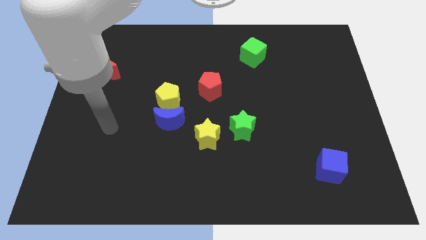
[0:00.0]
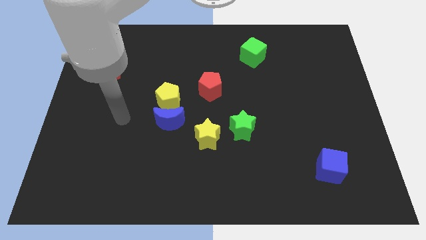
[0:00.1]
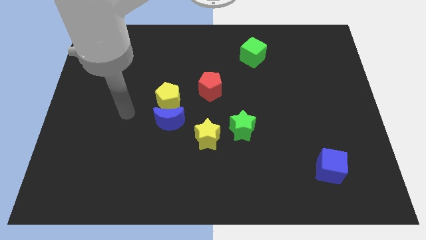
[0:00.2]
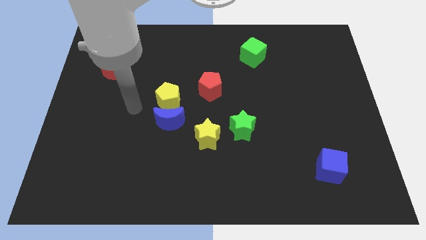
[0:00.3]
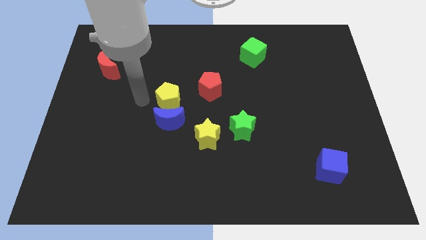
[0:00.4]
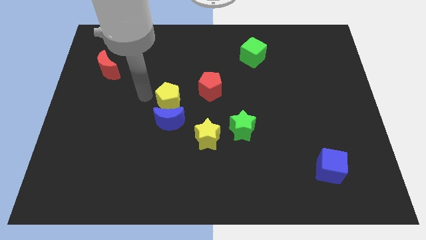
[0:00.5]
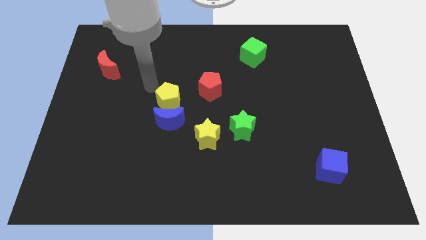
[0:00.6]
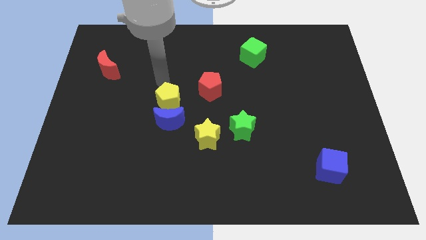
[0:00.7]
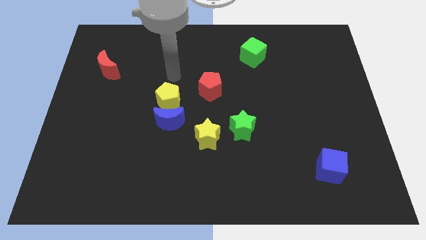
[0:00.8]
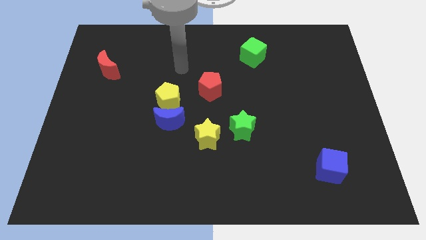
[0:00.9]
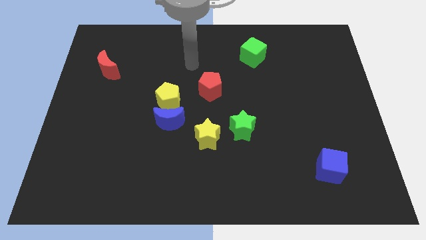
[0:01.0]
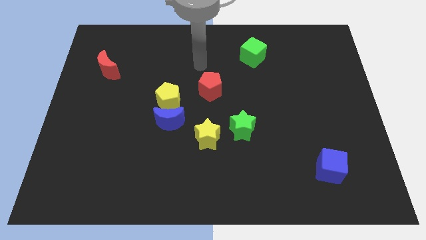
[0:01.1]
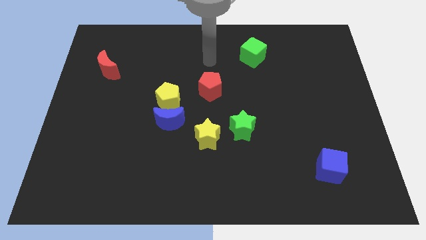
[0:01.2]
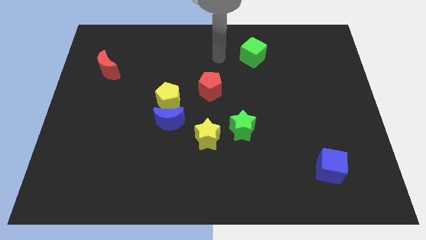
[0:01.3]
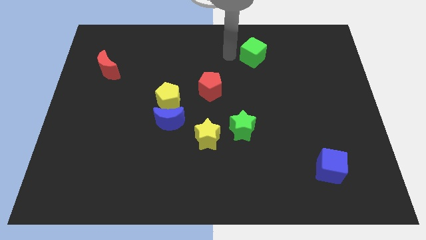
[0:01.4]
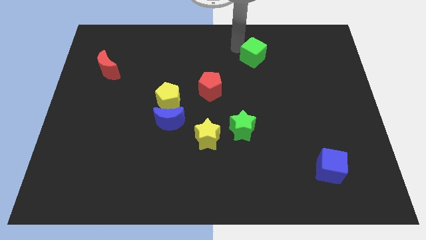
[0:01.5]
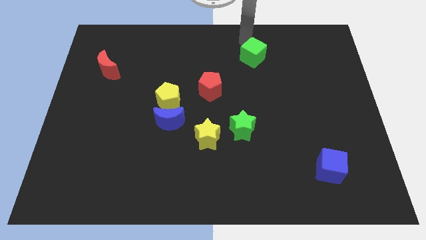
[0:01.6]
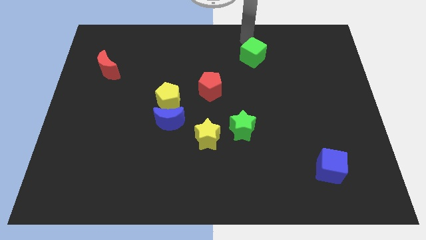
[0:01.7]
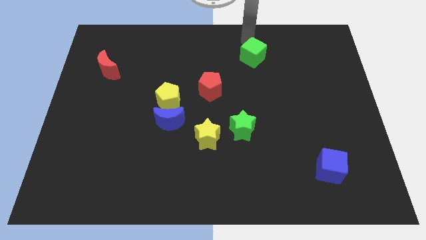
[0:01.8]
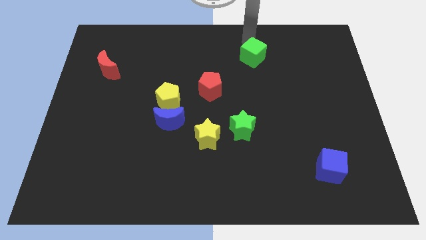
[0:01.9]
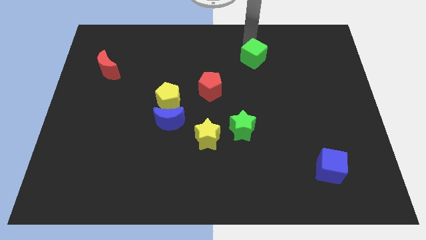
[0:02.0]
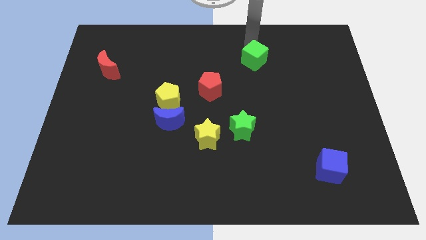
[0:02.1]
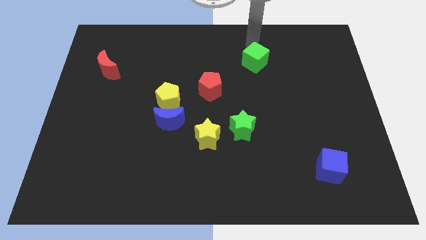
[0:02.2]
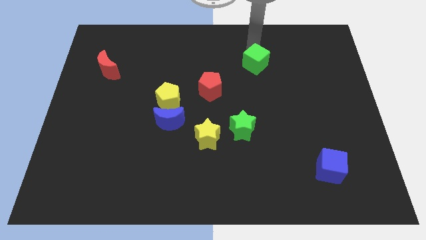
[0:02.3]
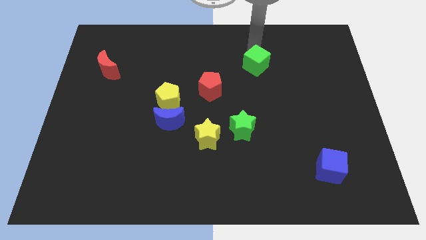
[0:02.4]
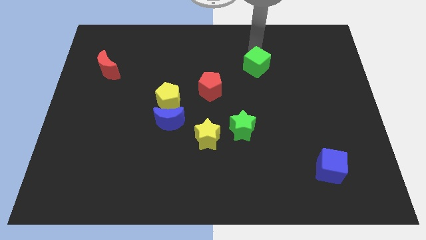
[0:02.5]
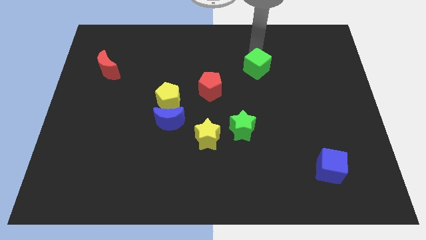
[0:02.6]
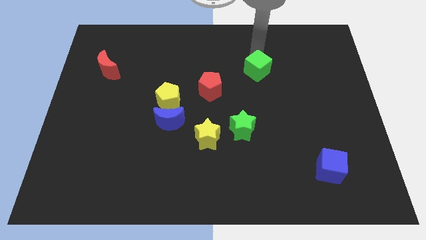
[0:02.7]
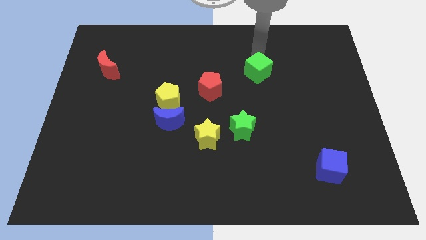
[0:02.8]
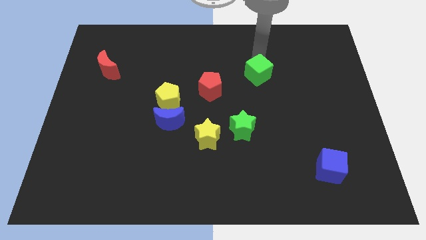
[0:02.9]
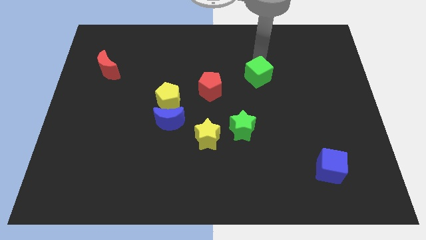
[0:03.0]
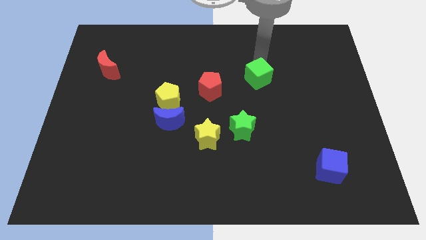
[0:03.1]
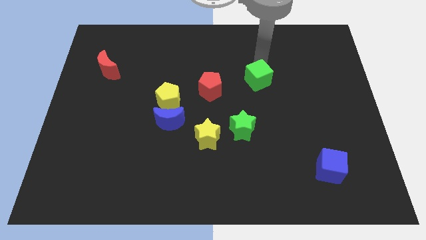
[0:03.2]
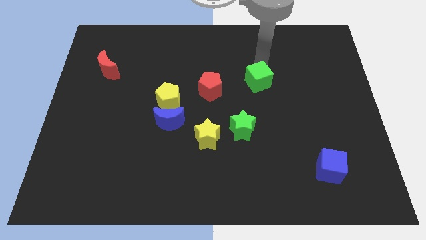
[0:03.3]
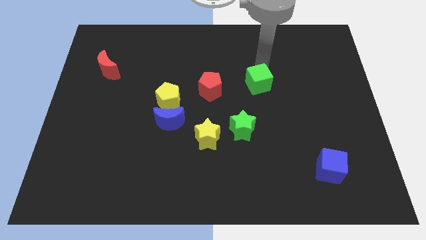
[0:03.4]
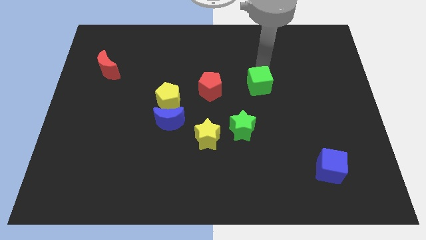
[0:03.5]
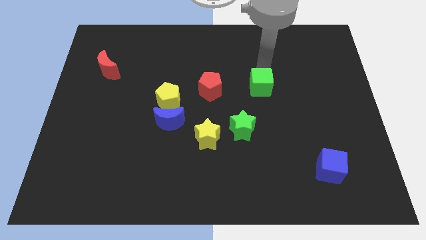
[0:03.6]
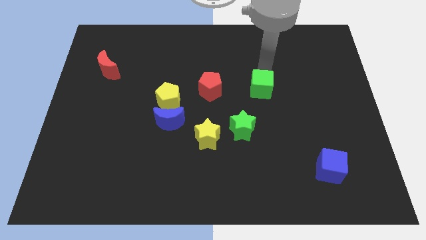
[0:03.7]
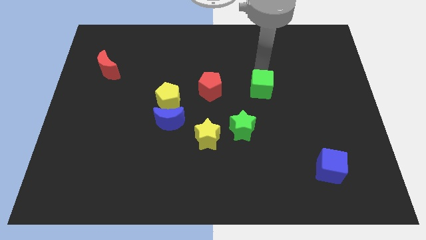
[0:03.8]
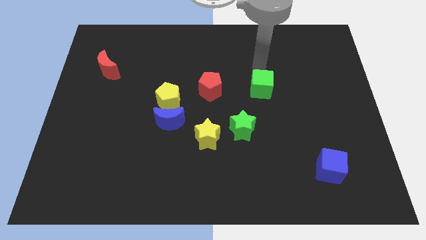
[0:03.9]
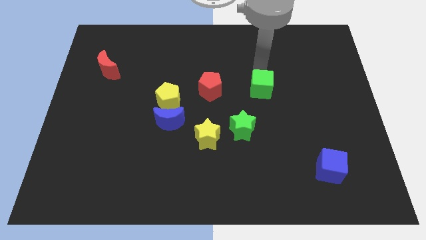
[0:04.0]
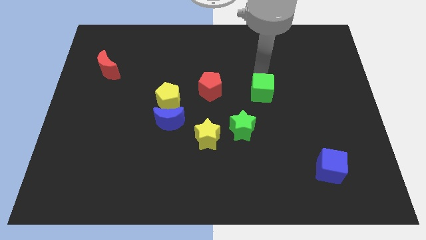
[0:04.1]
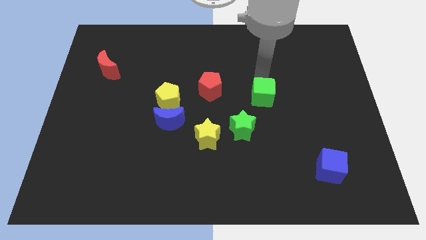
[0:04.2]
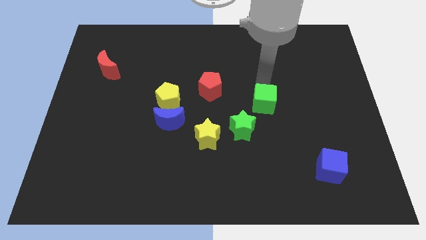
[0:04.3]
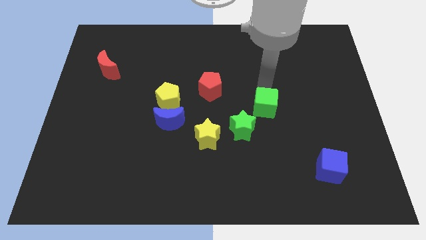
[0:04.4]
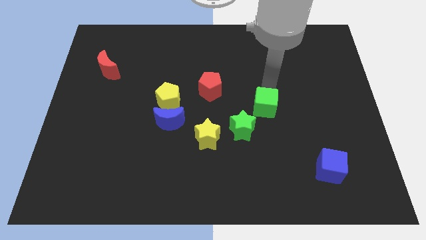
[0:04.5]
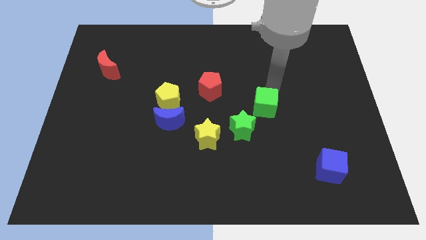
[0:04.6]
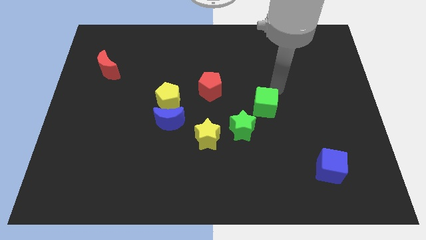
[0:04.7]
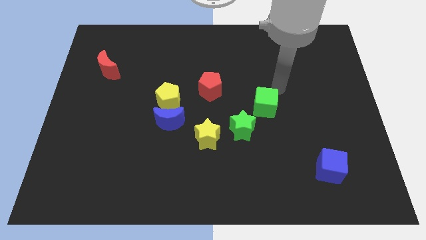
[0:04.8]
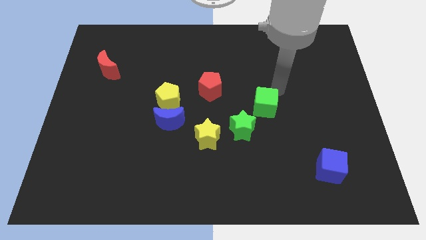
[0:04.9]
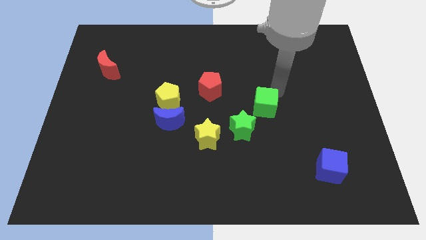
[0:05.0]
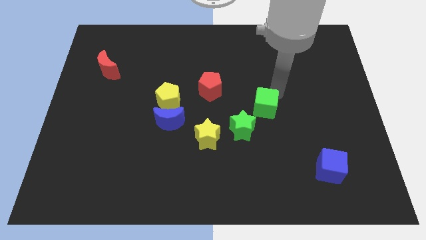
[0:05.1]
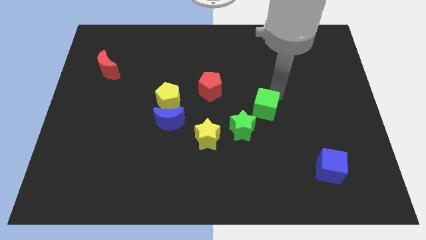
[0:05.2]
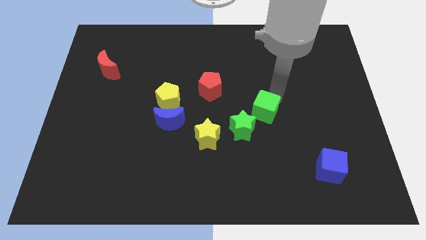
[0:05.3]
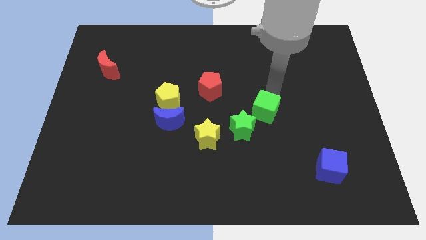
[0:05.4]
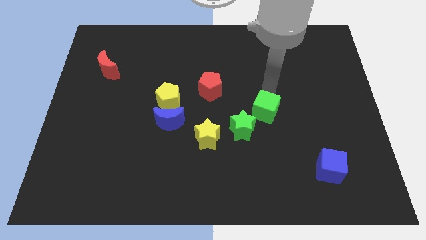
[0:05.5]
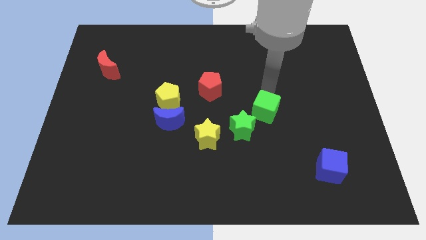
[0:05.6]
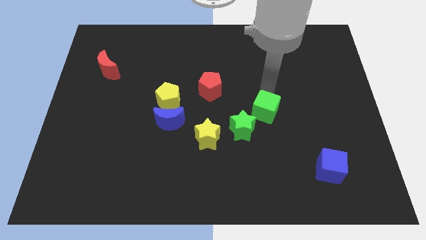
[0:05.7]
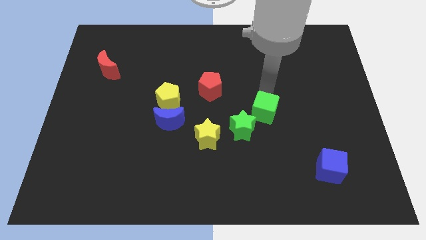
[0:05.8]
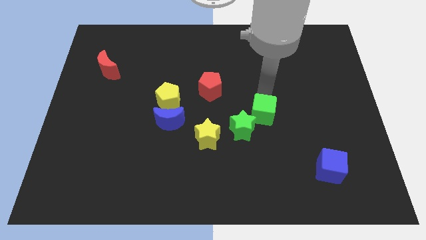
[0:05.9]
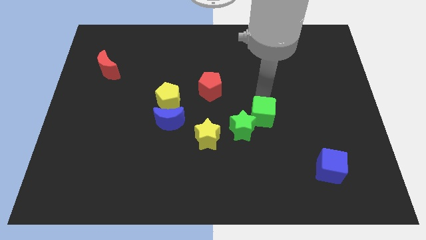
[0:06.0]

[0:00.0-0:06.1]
push the green cube down

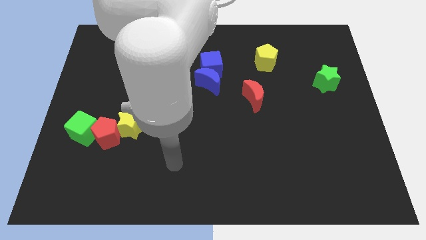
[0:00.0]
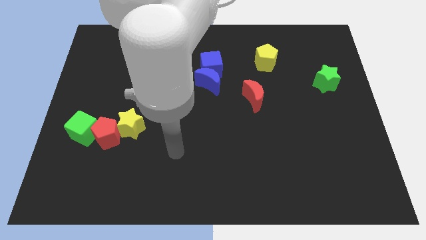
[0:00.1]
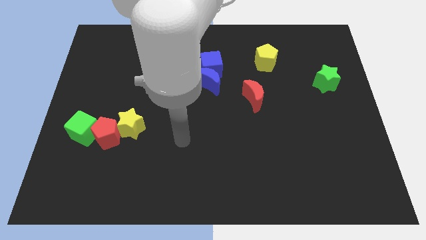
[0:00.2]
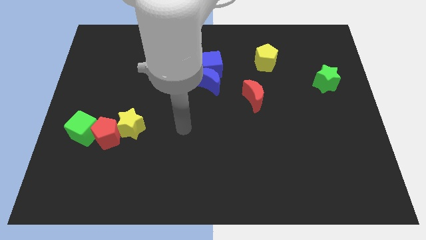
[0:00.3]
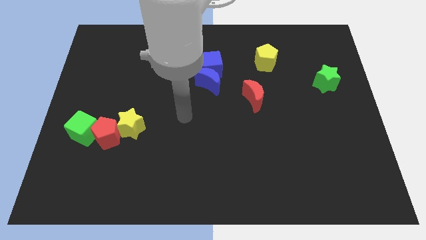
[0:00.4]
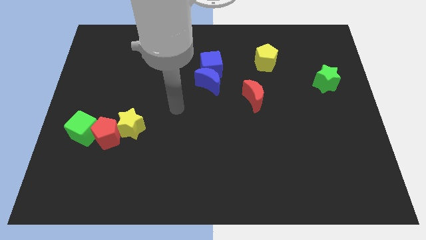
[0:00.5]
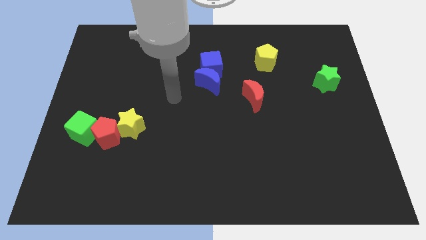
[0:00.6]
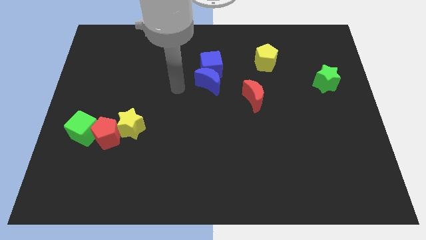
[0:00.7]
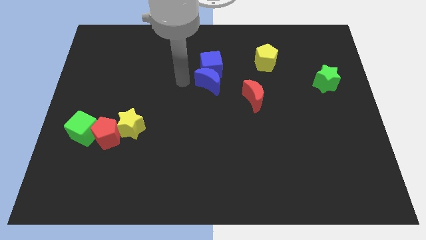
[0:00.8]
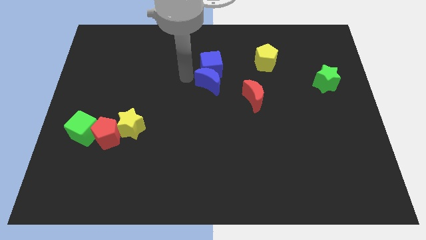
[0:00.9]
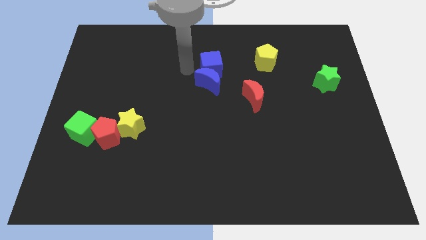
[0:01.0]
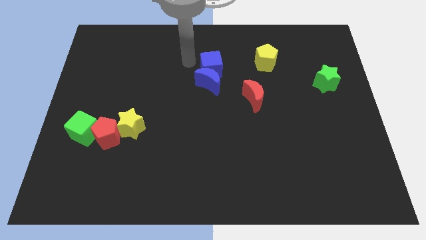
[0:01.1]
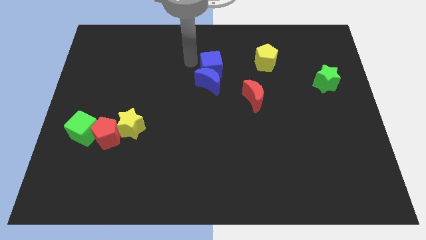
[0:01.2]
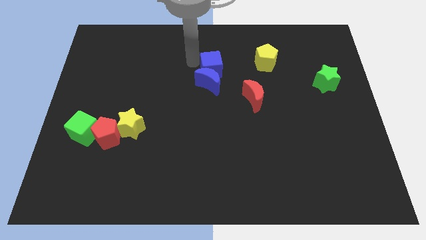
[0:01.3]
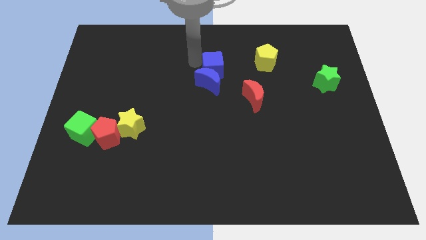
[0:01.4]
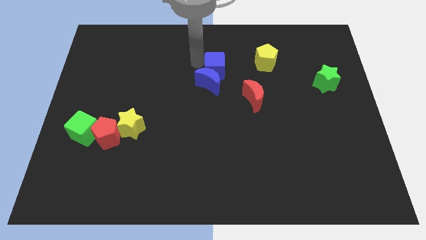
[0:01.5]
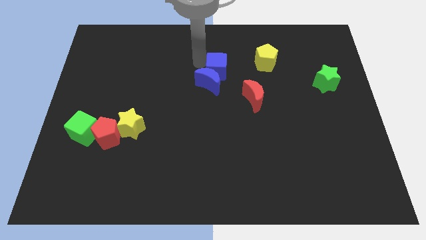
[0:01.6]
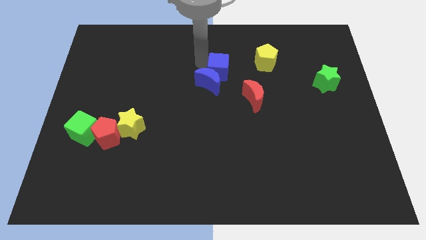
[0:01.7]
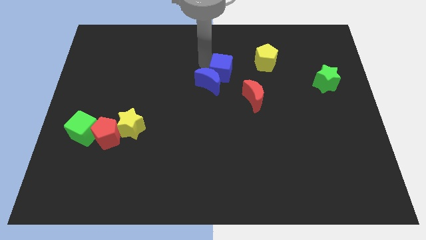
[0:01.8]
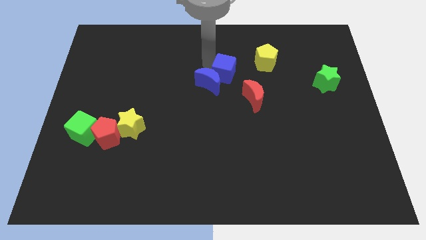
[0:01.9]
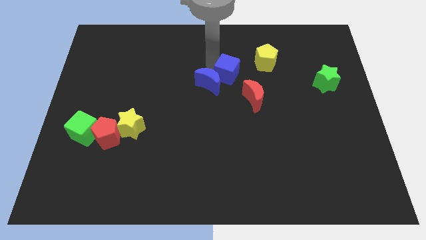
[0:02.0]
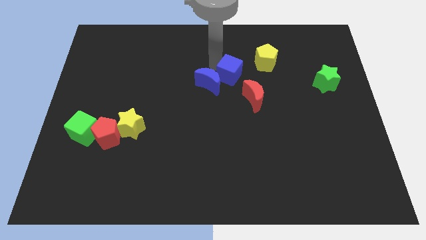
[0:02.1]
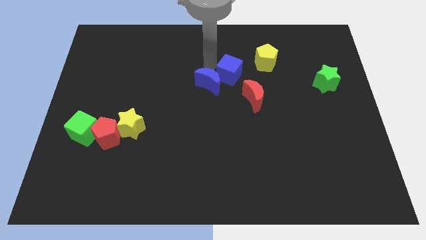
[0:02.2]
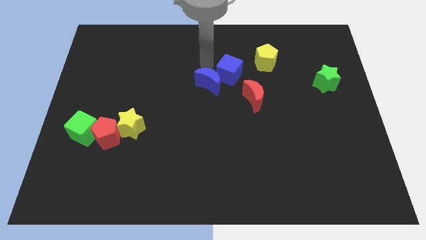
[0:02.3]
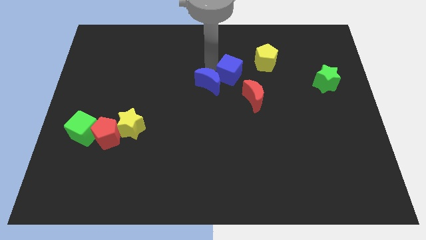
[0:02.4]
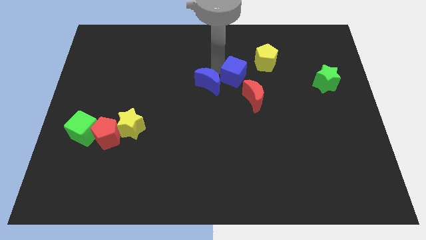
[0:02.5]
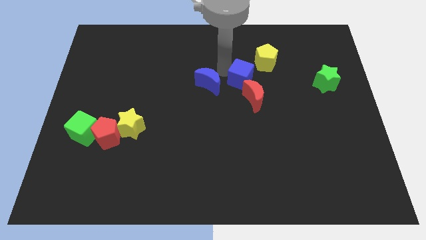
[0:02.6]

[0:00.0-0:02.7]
slightly push the blue cube downwards and to the right diagonally
